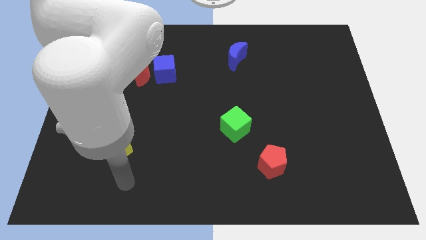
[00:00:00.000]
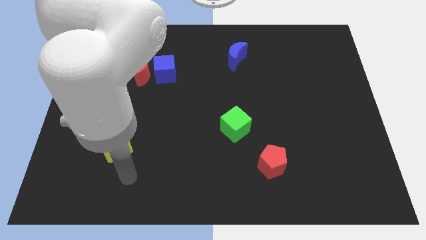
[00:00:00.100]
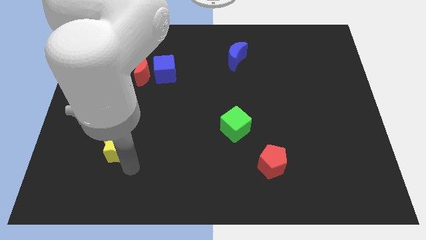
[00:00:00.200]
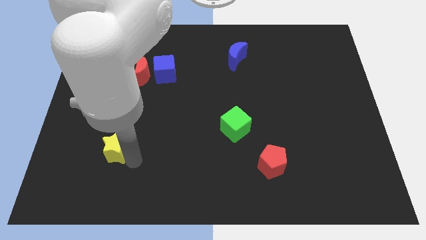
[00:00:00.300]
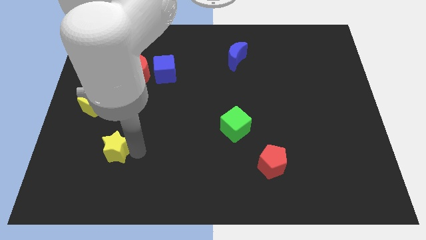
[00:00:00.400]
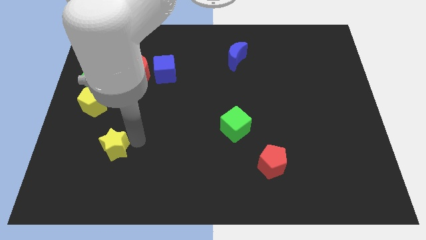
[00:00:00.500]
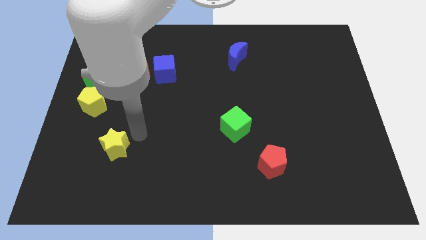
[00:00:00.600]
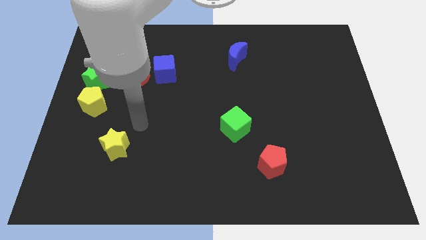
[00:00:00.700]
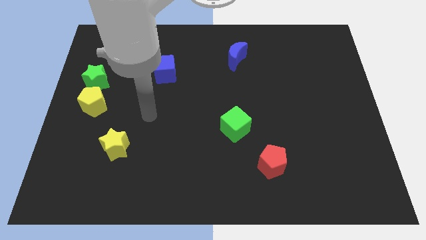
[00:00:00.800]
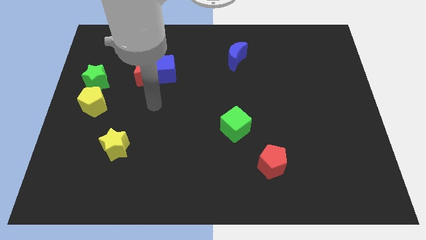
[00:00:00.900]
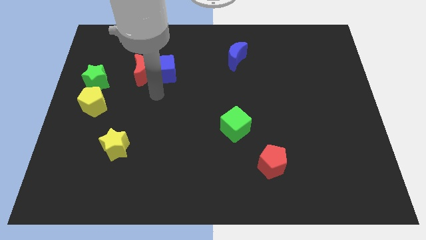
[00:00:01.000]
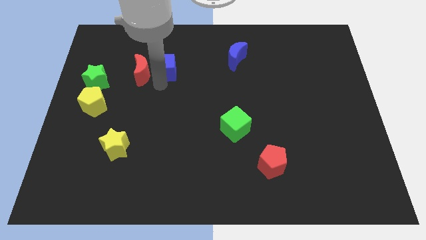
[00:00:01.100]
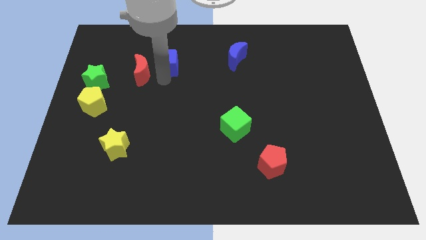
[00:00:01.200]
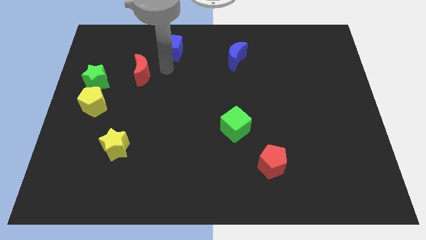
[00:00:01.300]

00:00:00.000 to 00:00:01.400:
pull the red moon apart from the blue cube

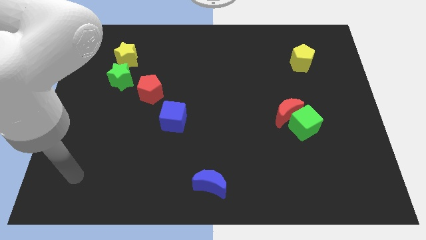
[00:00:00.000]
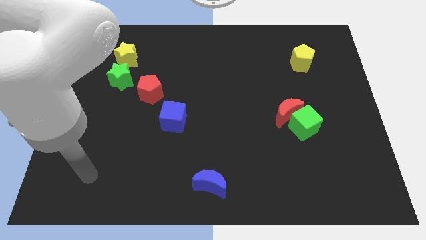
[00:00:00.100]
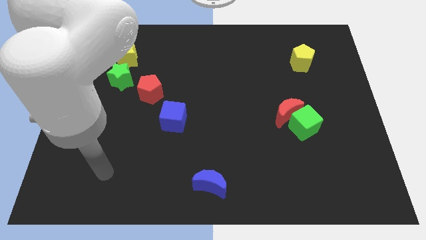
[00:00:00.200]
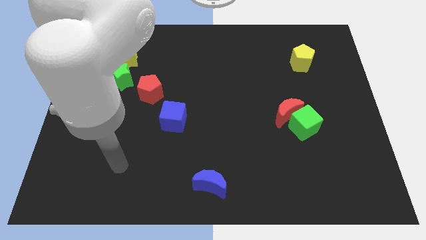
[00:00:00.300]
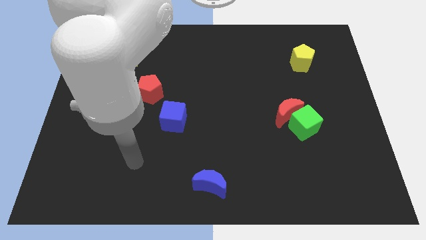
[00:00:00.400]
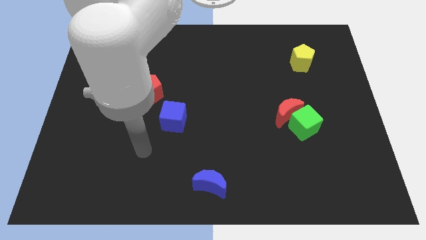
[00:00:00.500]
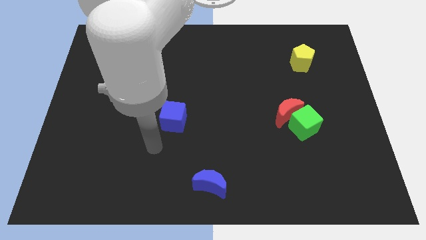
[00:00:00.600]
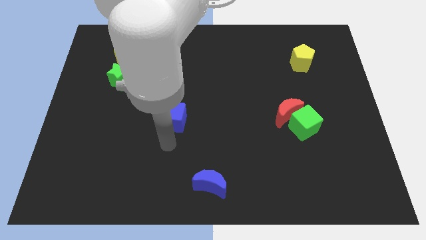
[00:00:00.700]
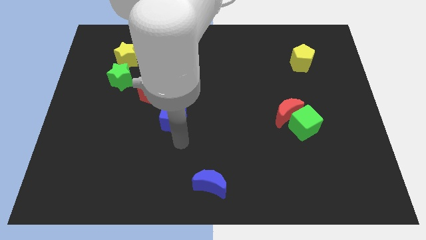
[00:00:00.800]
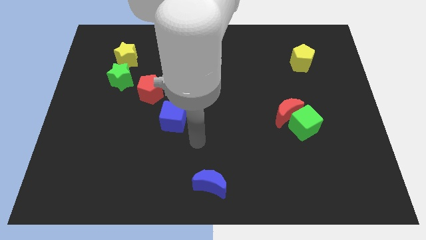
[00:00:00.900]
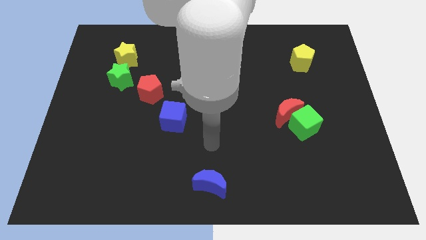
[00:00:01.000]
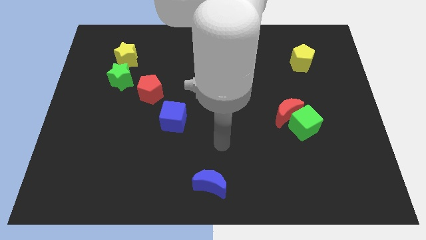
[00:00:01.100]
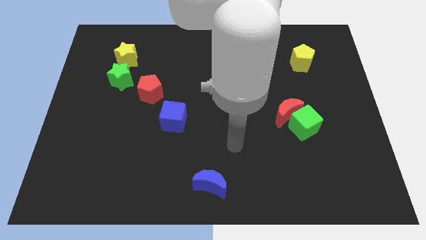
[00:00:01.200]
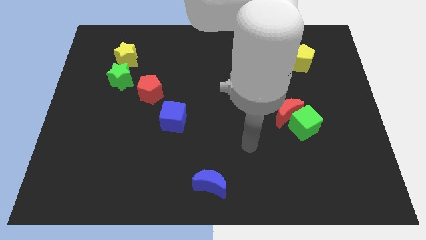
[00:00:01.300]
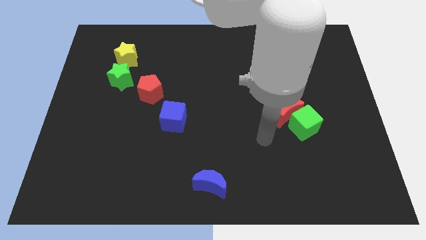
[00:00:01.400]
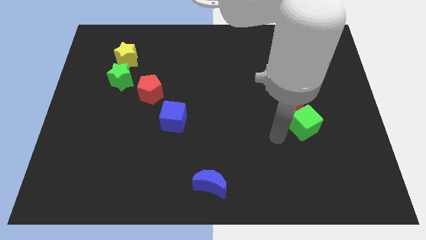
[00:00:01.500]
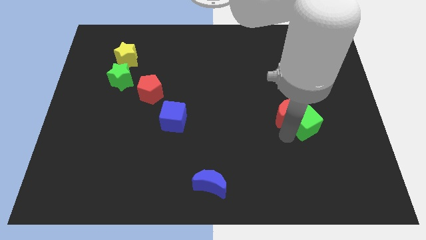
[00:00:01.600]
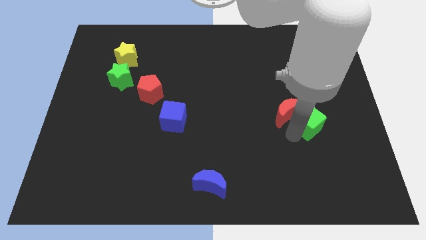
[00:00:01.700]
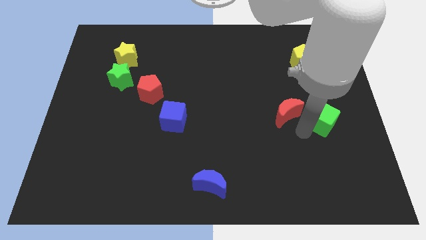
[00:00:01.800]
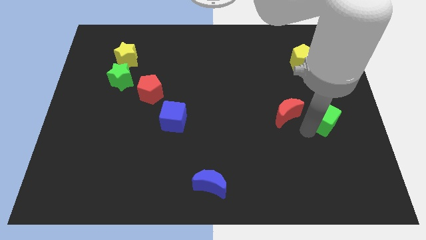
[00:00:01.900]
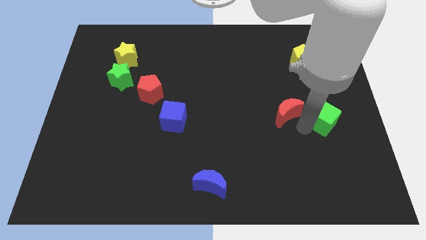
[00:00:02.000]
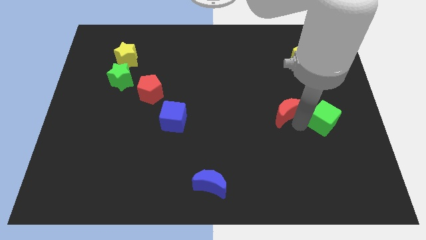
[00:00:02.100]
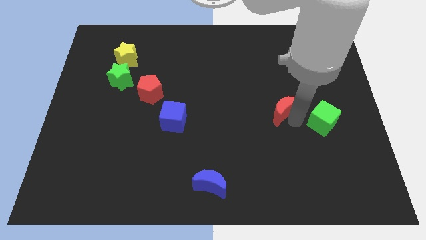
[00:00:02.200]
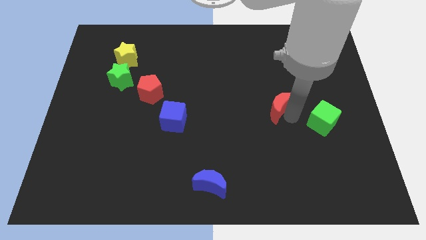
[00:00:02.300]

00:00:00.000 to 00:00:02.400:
pull the red moon apart from the green cube

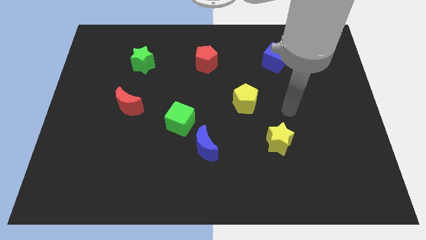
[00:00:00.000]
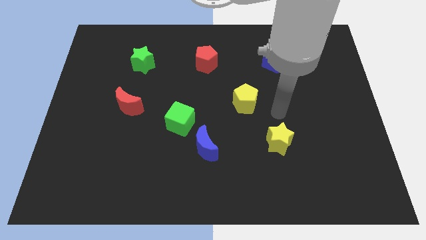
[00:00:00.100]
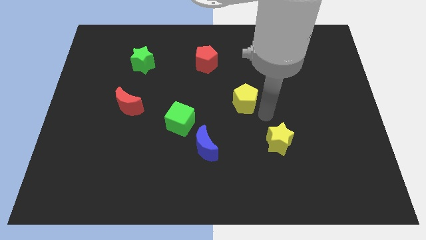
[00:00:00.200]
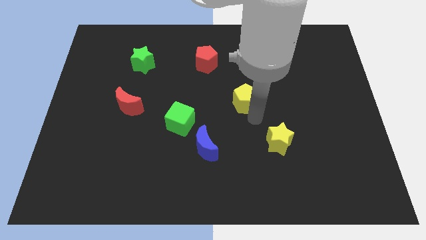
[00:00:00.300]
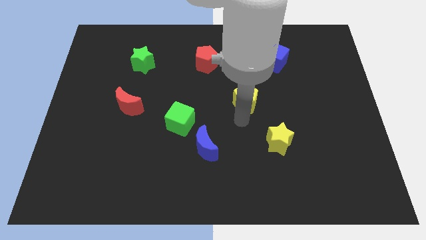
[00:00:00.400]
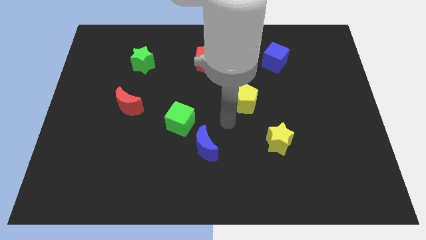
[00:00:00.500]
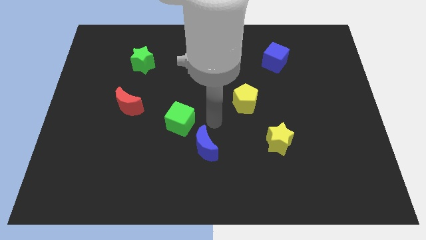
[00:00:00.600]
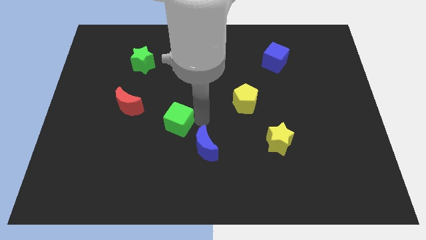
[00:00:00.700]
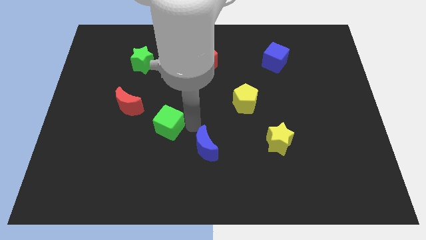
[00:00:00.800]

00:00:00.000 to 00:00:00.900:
separate the blue moon from the green cube

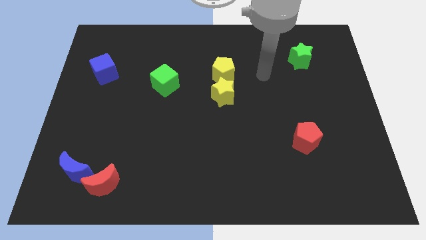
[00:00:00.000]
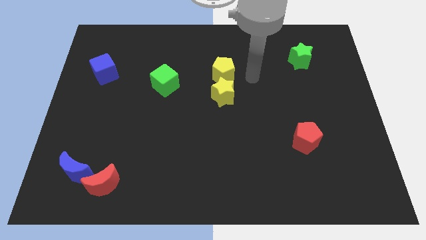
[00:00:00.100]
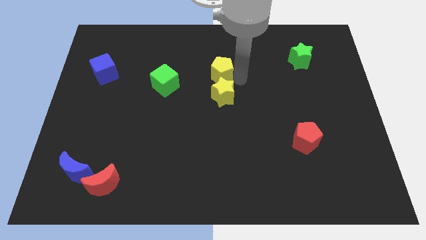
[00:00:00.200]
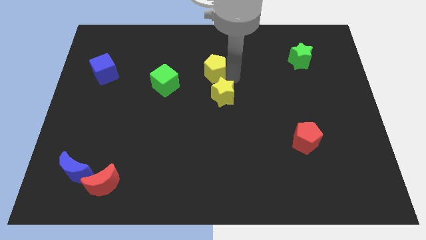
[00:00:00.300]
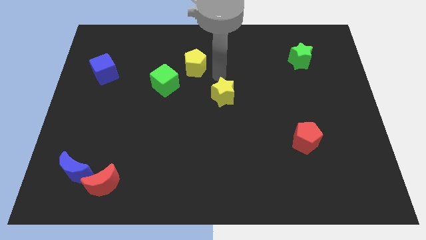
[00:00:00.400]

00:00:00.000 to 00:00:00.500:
pull the yellow star apart from the yellow pentagon

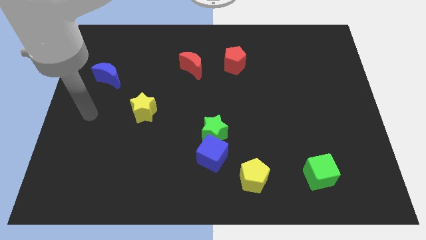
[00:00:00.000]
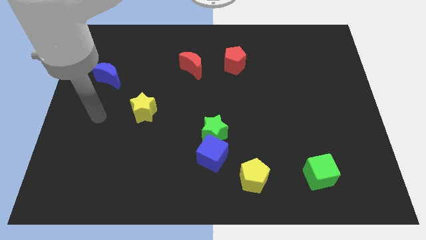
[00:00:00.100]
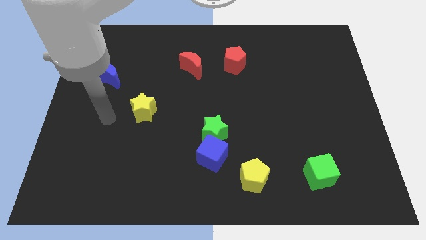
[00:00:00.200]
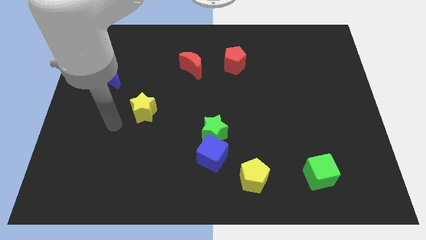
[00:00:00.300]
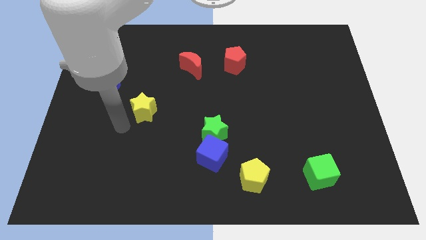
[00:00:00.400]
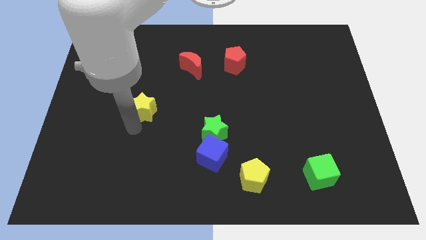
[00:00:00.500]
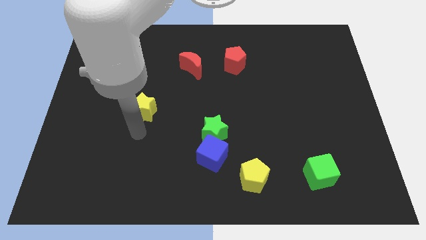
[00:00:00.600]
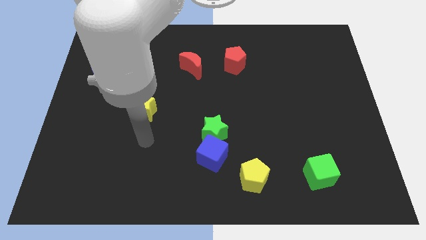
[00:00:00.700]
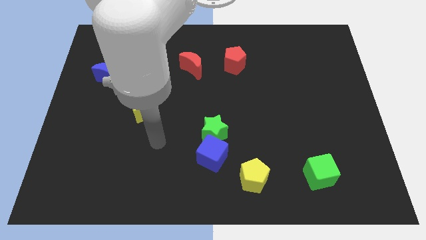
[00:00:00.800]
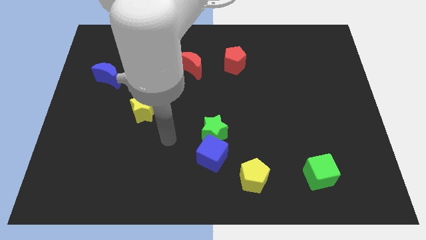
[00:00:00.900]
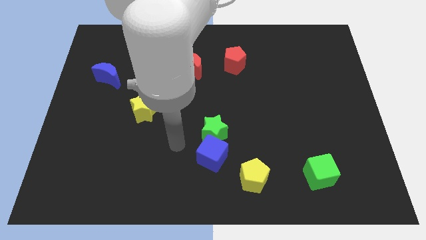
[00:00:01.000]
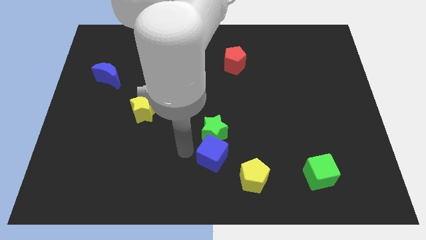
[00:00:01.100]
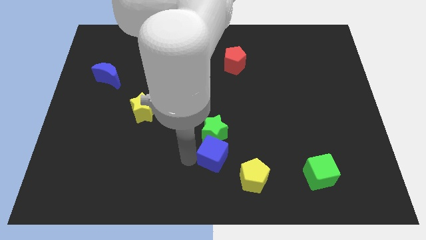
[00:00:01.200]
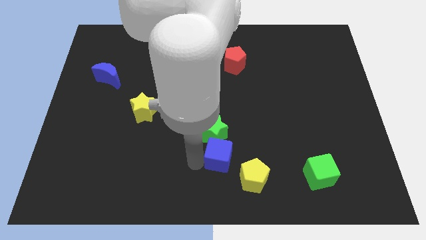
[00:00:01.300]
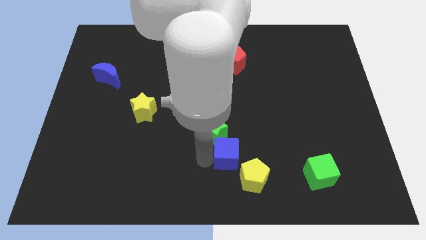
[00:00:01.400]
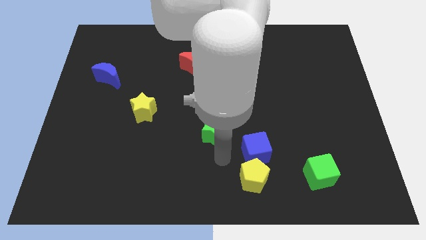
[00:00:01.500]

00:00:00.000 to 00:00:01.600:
move the green star away from the blue cube

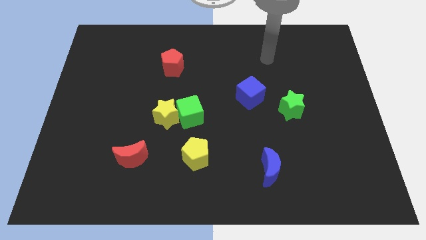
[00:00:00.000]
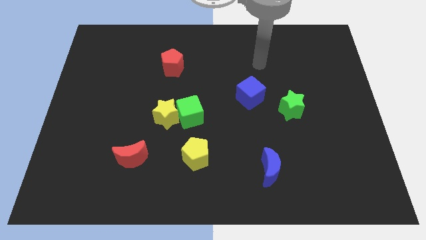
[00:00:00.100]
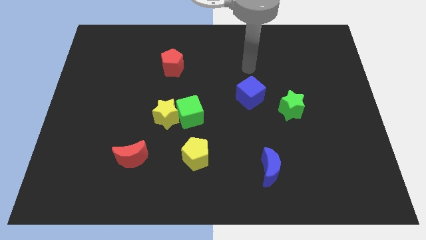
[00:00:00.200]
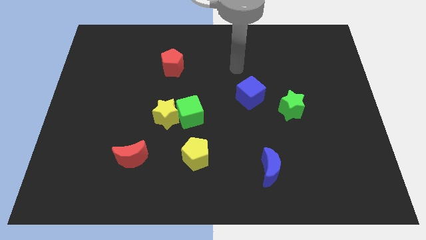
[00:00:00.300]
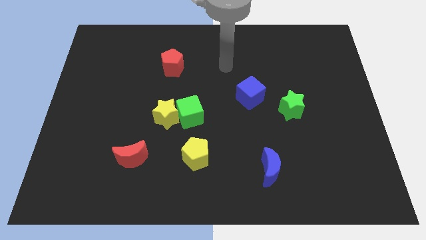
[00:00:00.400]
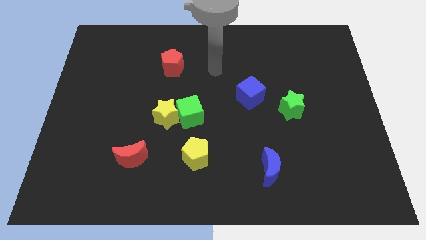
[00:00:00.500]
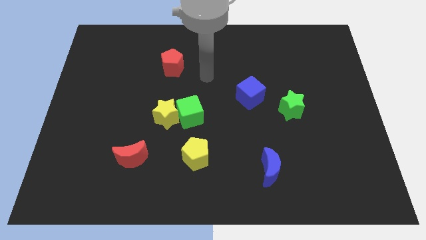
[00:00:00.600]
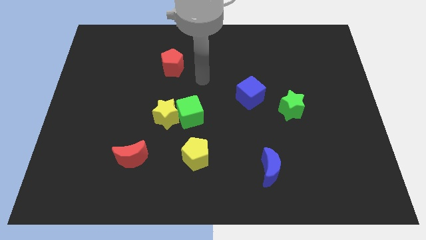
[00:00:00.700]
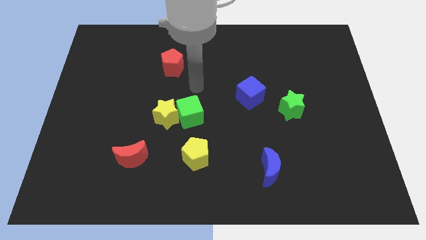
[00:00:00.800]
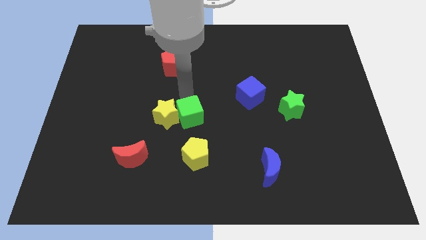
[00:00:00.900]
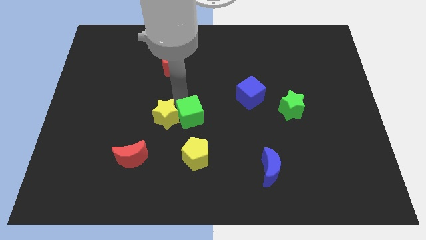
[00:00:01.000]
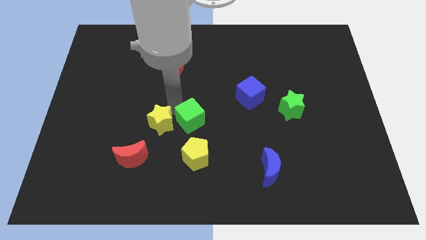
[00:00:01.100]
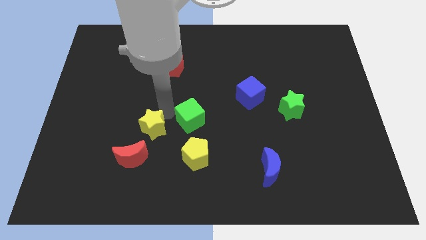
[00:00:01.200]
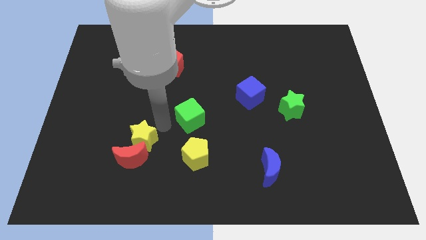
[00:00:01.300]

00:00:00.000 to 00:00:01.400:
pull the green cube apart from the yellow star

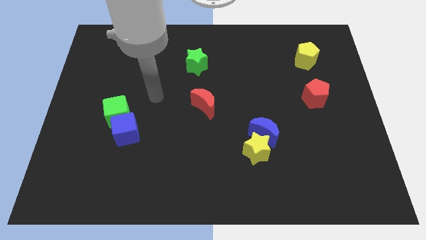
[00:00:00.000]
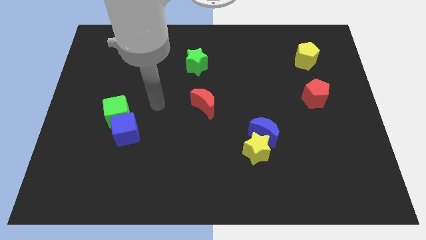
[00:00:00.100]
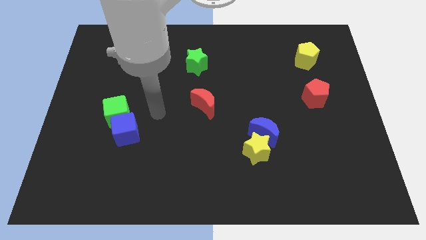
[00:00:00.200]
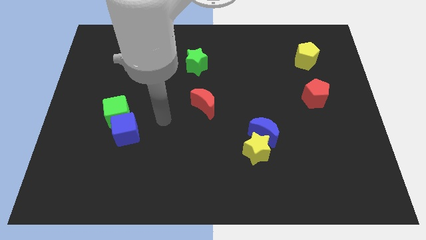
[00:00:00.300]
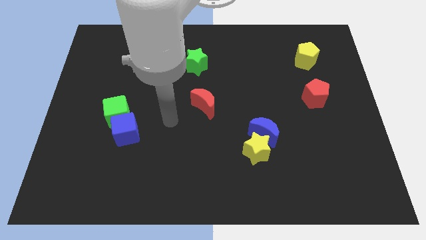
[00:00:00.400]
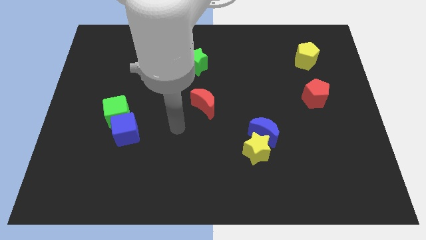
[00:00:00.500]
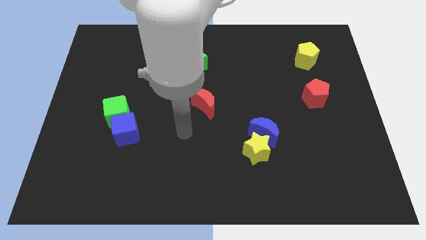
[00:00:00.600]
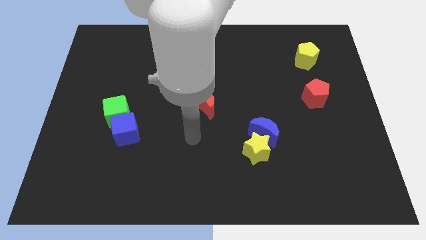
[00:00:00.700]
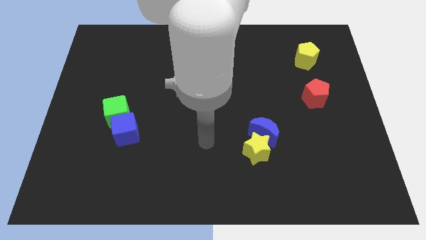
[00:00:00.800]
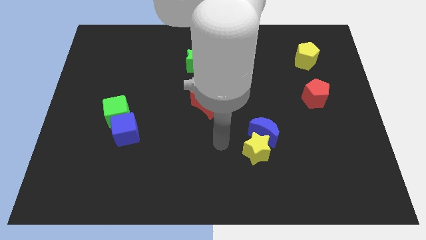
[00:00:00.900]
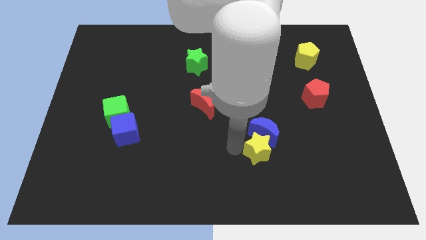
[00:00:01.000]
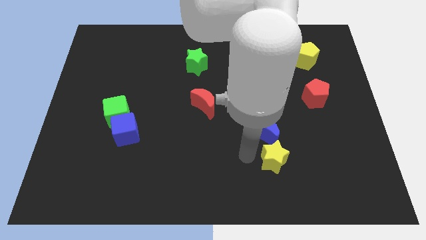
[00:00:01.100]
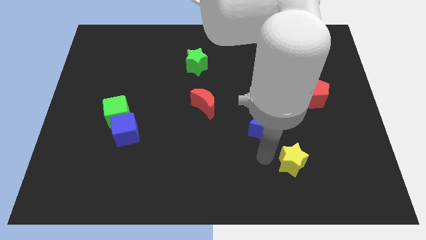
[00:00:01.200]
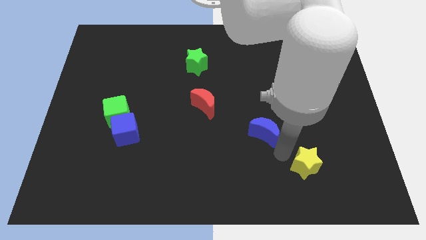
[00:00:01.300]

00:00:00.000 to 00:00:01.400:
separate the blue moon from the yellow star
